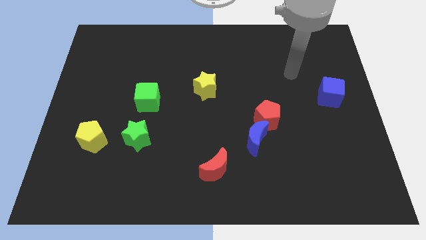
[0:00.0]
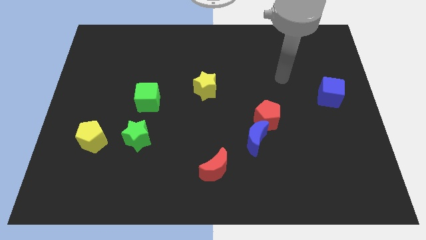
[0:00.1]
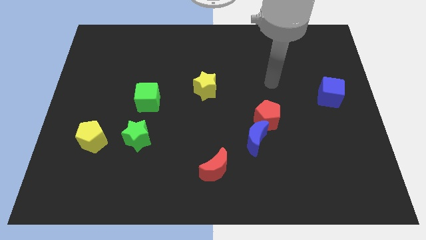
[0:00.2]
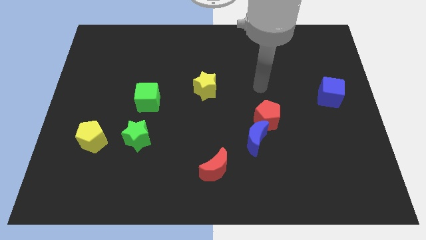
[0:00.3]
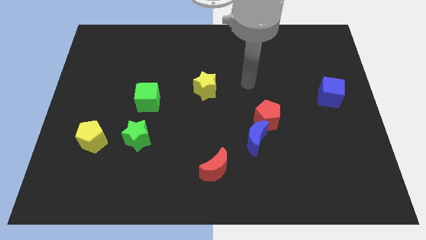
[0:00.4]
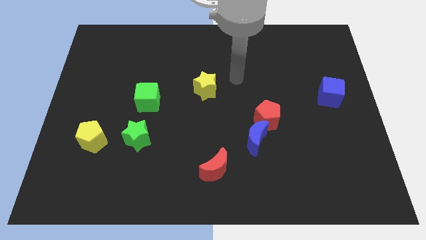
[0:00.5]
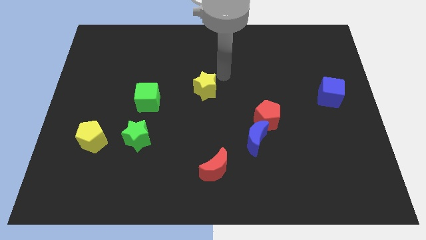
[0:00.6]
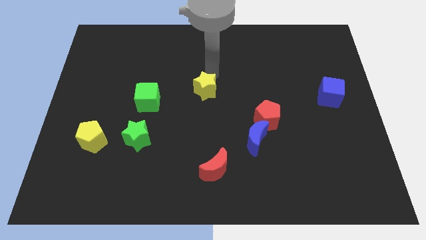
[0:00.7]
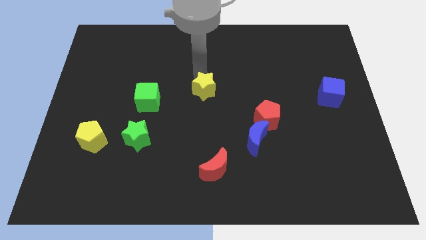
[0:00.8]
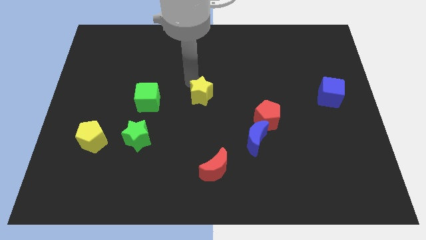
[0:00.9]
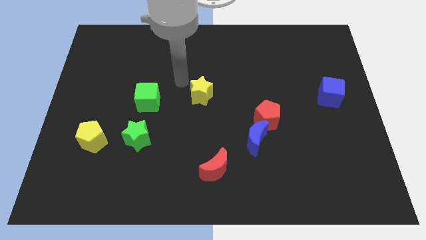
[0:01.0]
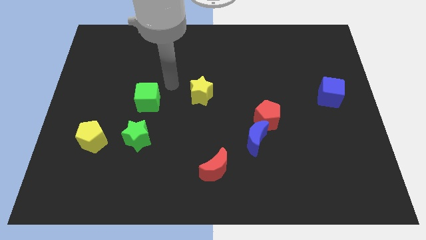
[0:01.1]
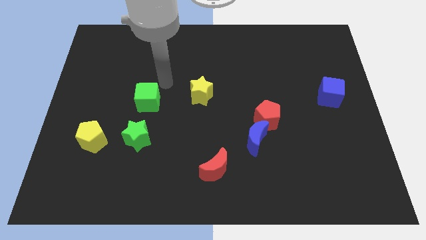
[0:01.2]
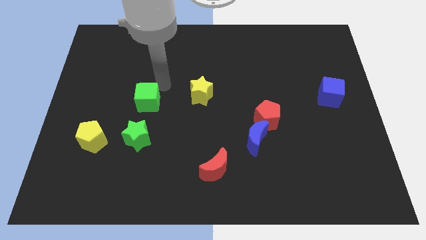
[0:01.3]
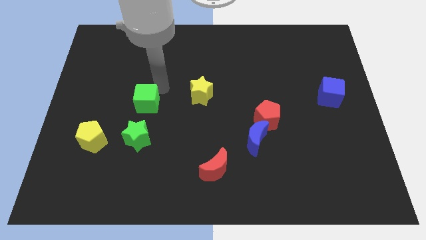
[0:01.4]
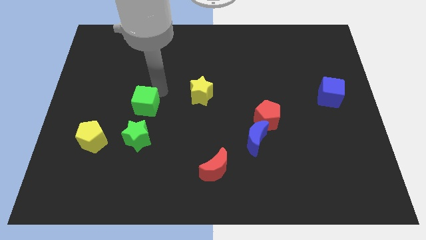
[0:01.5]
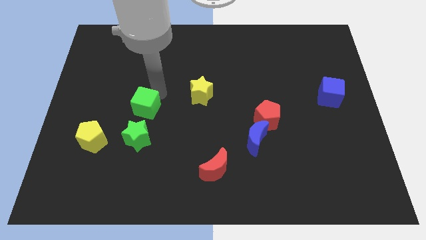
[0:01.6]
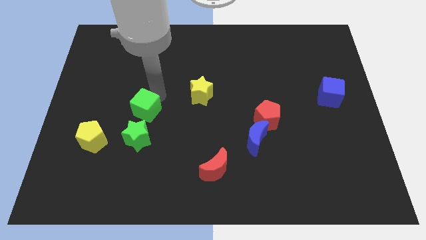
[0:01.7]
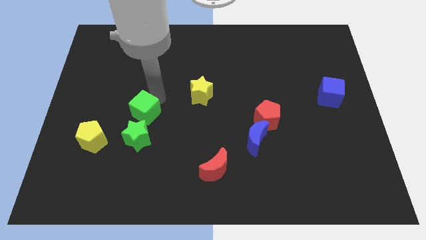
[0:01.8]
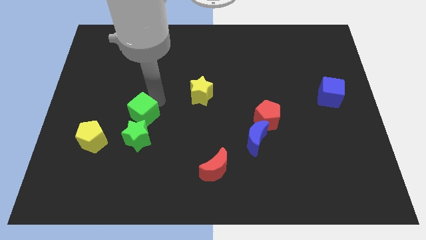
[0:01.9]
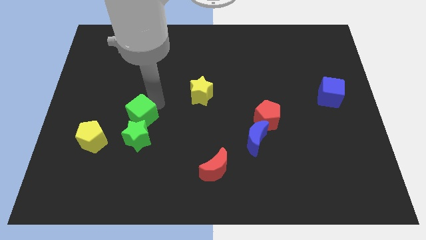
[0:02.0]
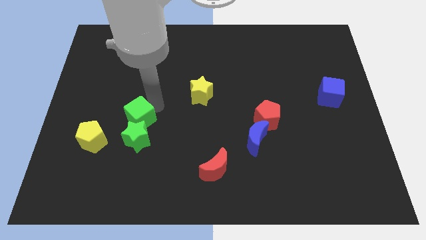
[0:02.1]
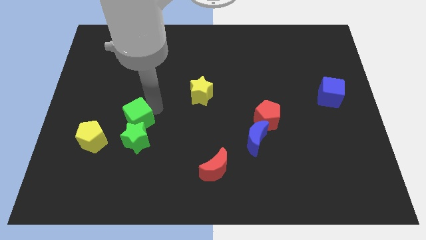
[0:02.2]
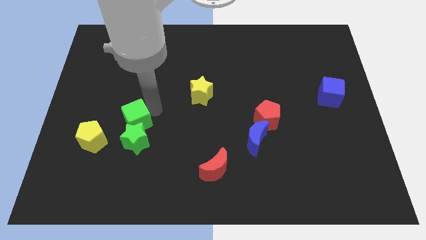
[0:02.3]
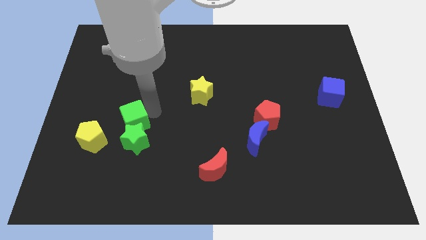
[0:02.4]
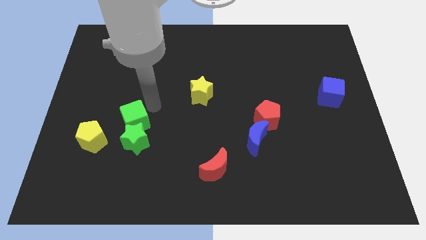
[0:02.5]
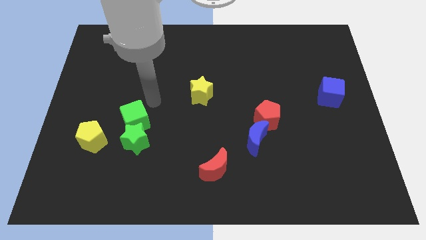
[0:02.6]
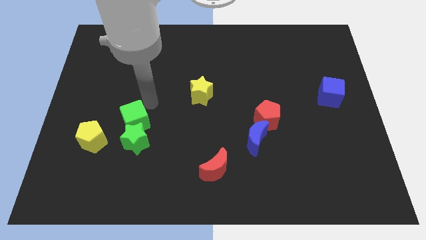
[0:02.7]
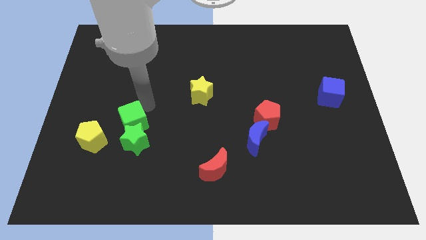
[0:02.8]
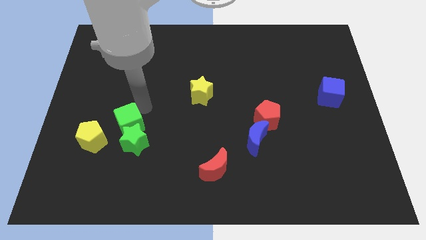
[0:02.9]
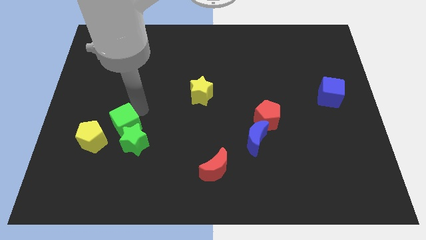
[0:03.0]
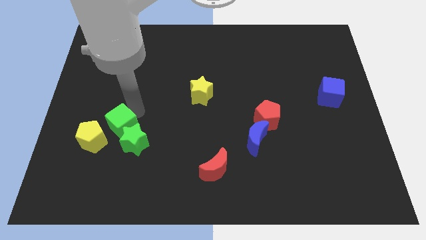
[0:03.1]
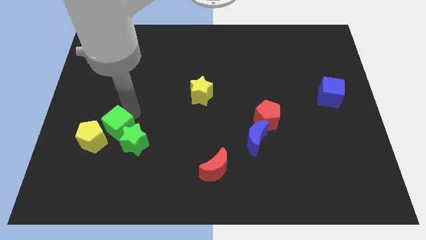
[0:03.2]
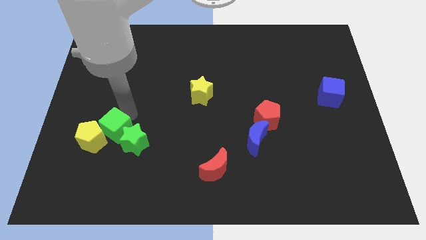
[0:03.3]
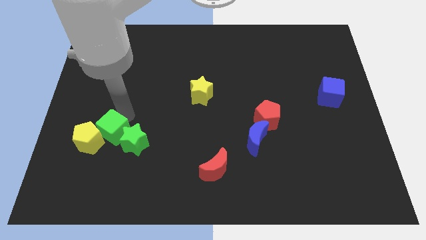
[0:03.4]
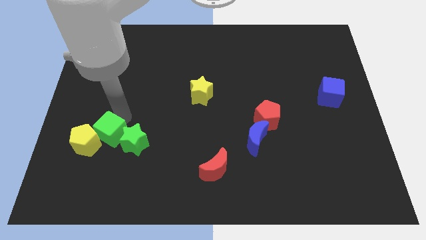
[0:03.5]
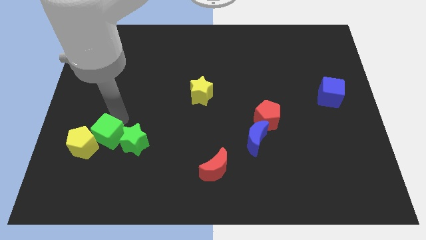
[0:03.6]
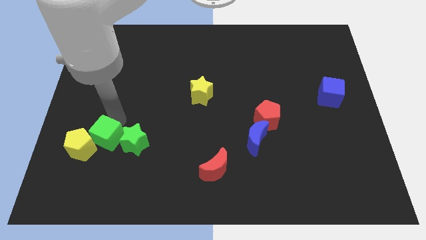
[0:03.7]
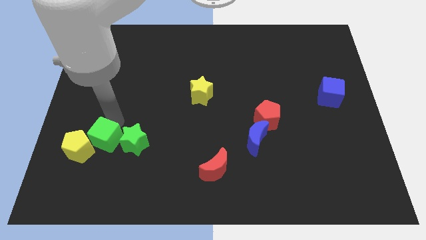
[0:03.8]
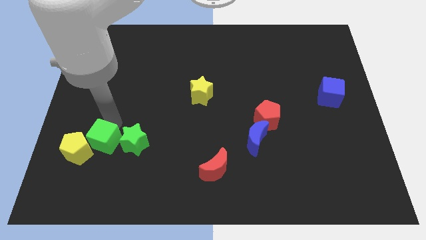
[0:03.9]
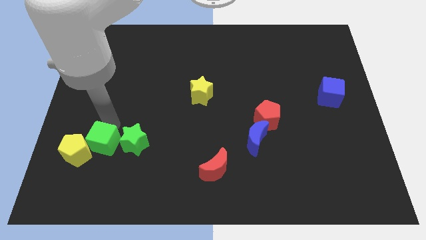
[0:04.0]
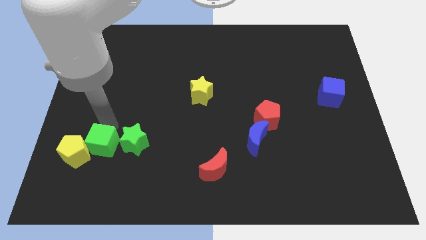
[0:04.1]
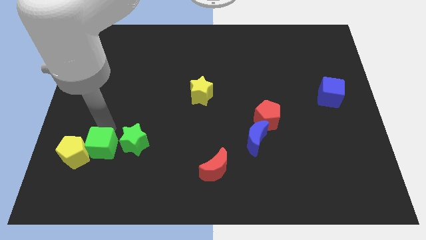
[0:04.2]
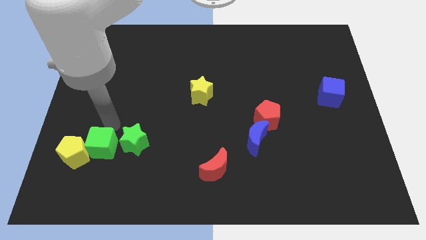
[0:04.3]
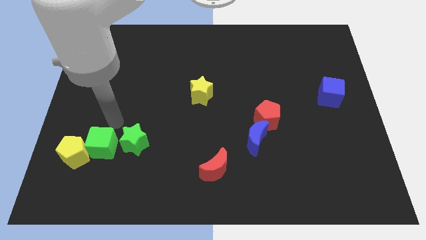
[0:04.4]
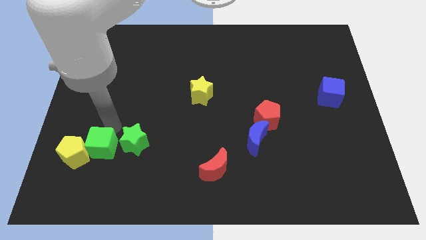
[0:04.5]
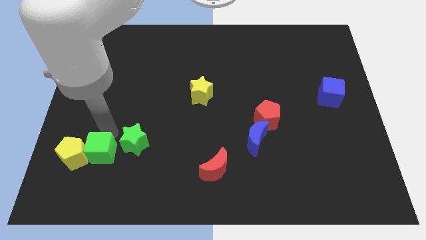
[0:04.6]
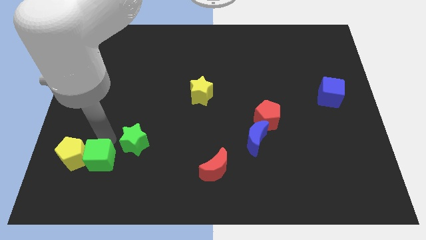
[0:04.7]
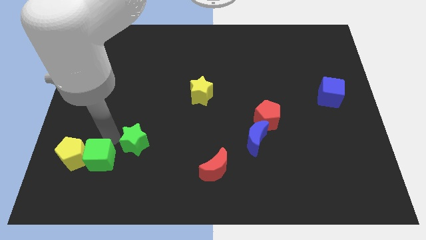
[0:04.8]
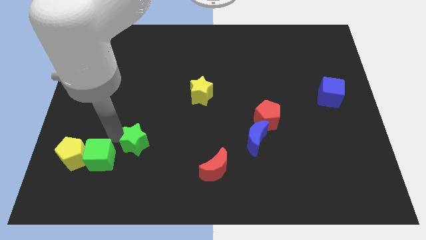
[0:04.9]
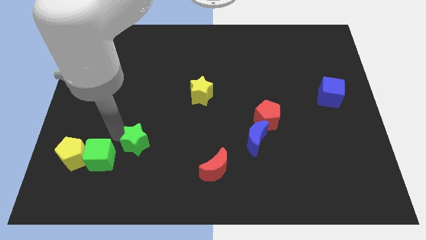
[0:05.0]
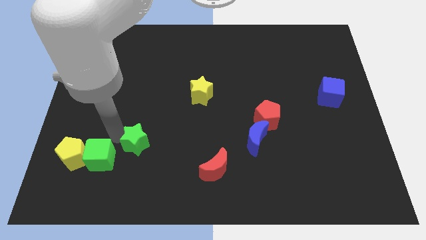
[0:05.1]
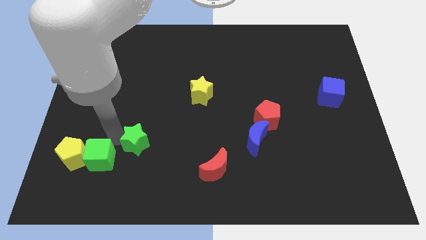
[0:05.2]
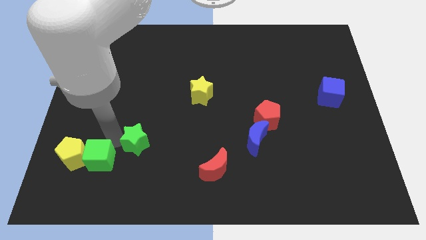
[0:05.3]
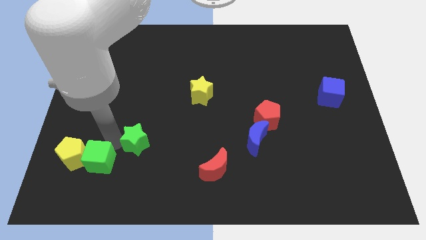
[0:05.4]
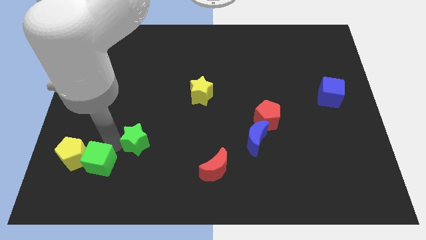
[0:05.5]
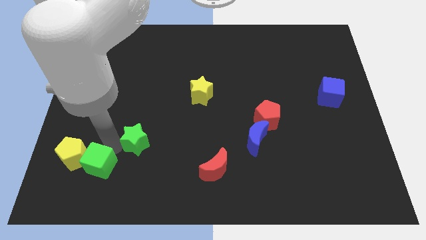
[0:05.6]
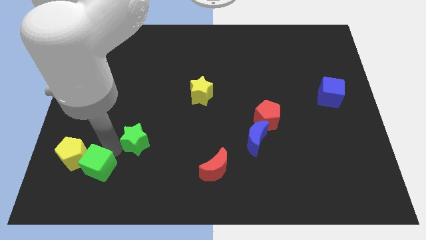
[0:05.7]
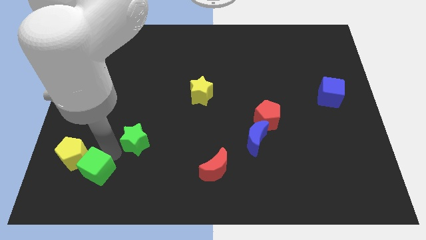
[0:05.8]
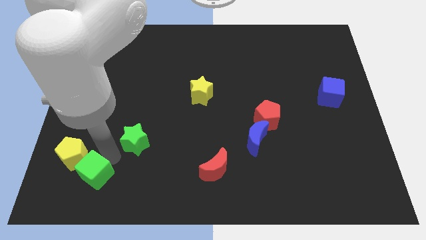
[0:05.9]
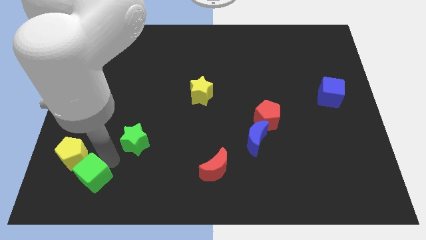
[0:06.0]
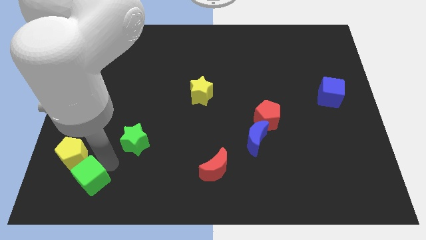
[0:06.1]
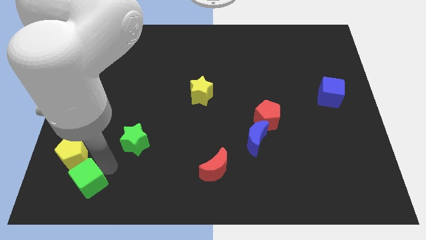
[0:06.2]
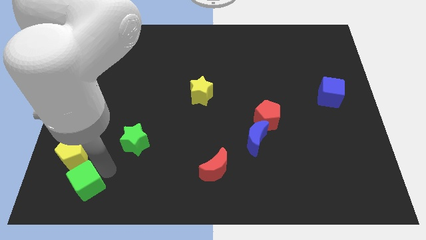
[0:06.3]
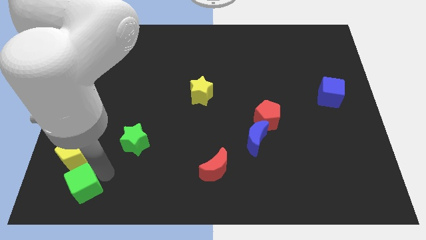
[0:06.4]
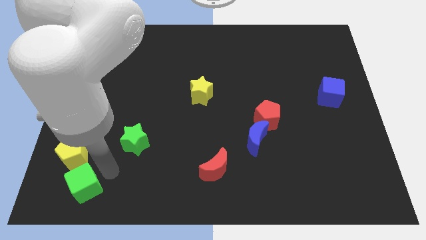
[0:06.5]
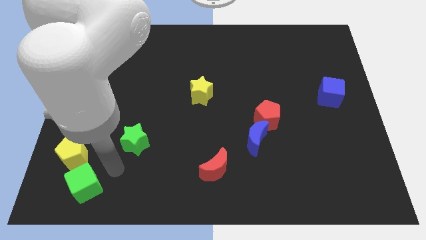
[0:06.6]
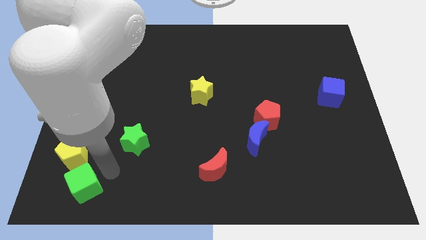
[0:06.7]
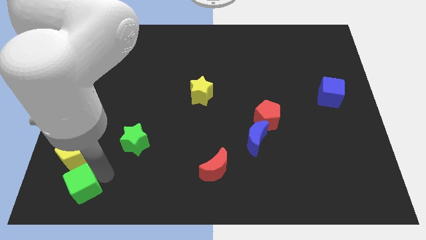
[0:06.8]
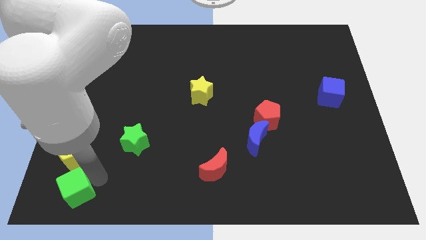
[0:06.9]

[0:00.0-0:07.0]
slide the green cube to the lower left corner

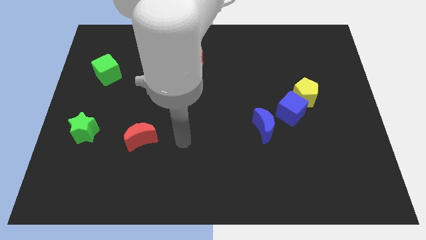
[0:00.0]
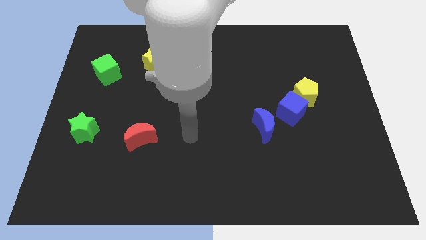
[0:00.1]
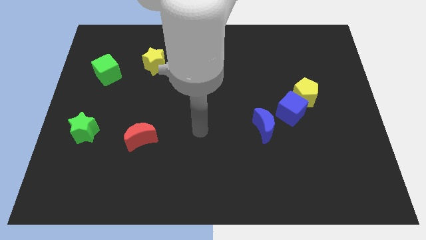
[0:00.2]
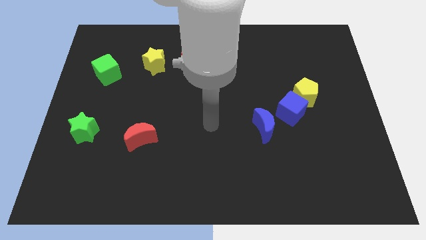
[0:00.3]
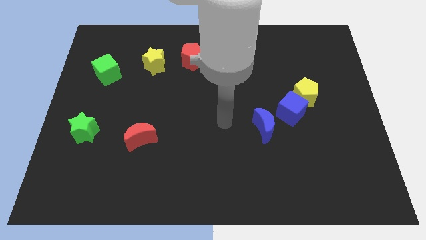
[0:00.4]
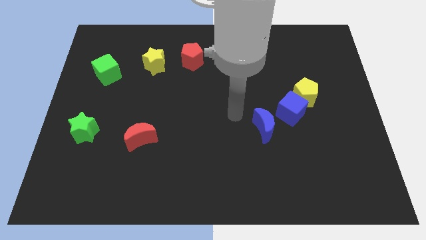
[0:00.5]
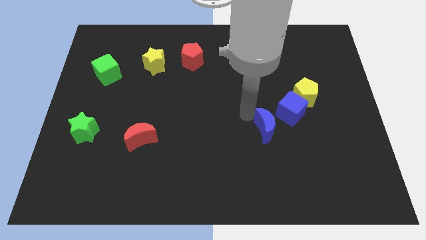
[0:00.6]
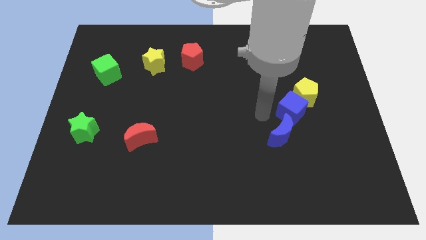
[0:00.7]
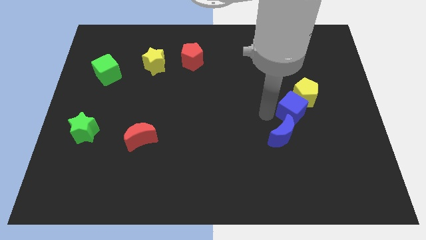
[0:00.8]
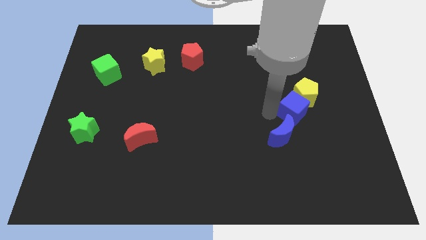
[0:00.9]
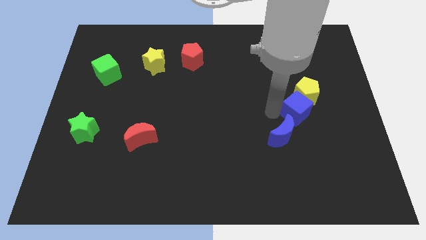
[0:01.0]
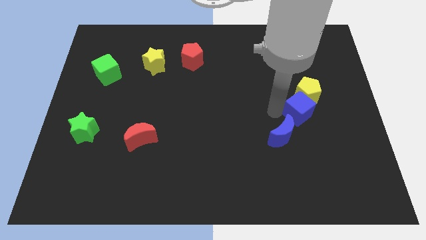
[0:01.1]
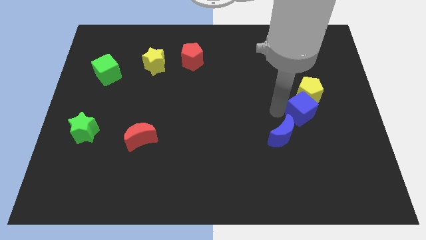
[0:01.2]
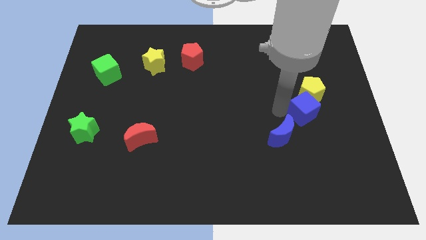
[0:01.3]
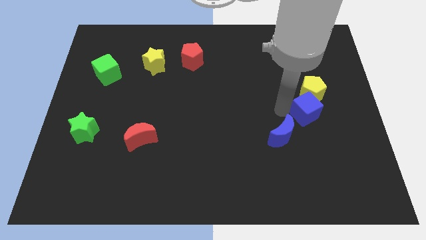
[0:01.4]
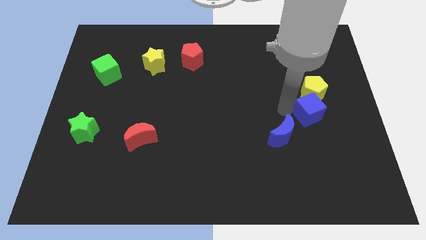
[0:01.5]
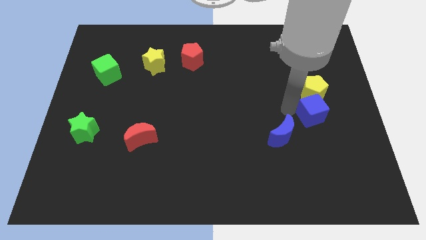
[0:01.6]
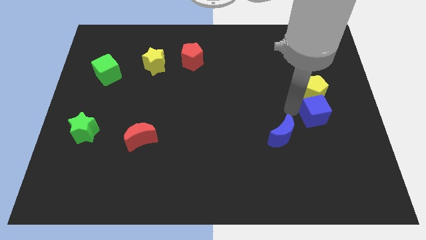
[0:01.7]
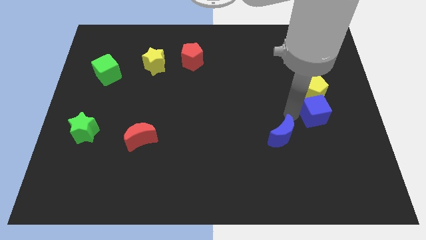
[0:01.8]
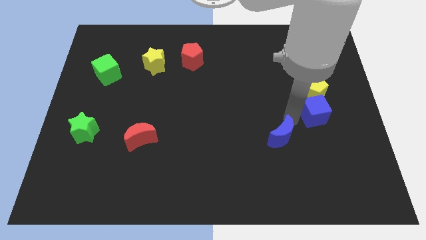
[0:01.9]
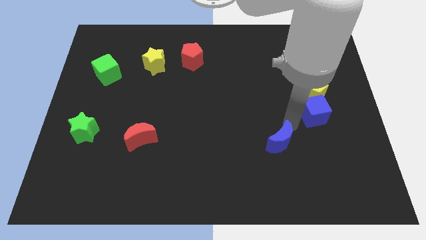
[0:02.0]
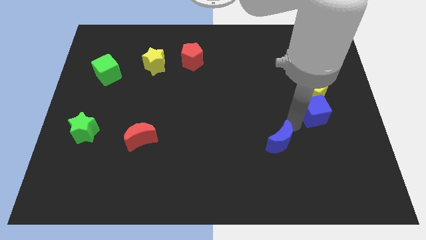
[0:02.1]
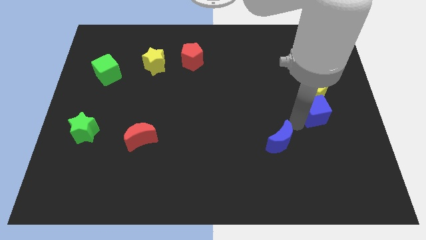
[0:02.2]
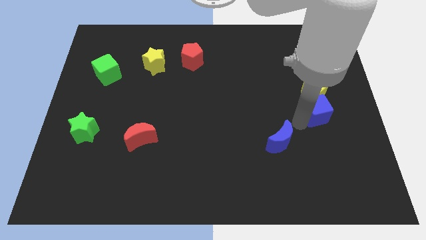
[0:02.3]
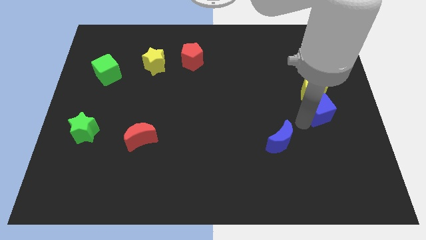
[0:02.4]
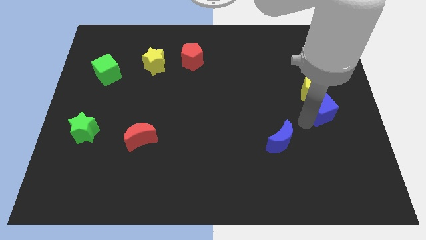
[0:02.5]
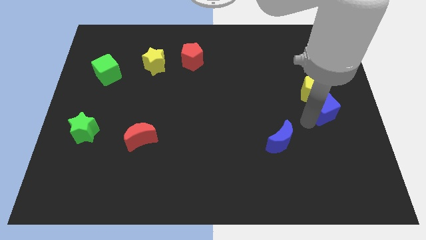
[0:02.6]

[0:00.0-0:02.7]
push the blue cube to the right side of the board
